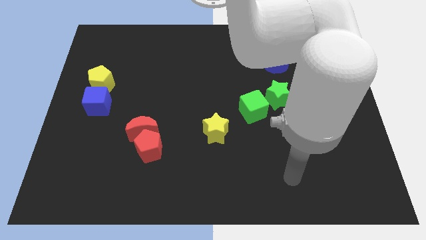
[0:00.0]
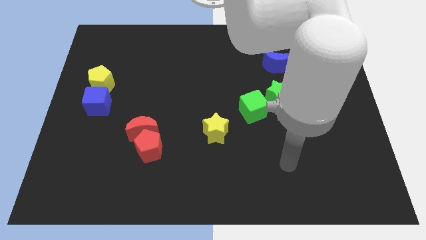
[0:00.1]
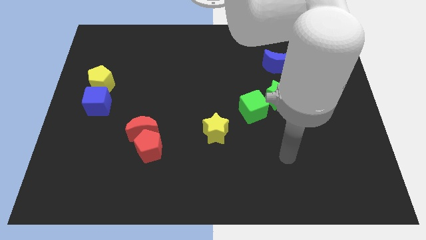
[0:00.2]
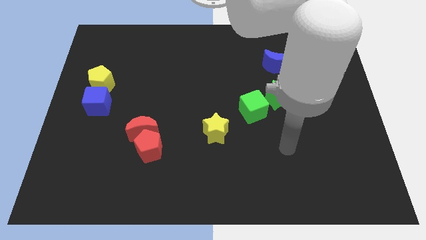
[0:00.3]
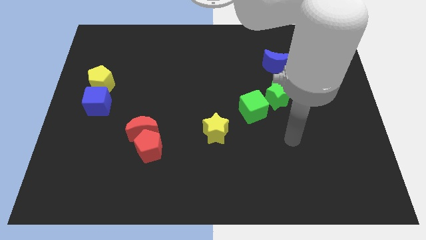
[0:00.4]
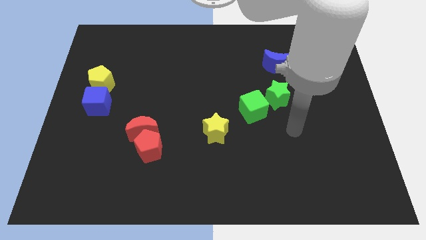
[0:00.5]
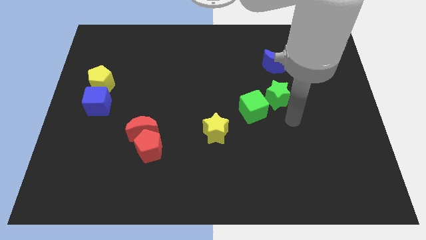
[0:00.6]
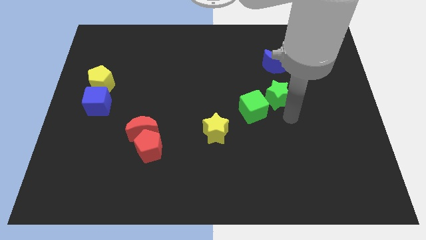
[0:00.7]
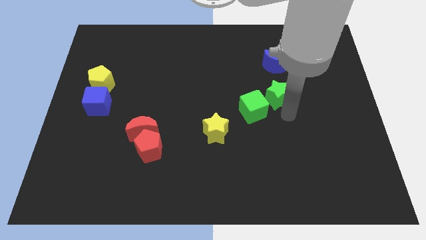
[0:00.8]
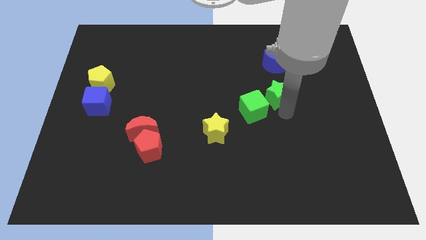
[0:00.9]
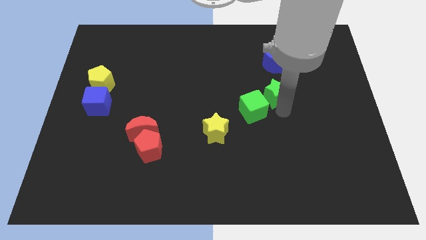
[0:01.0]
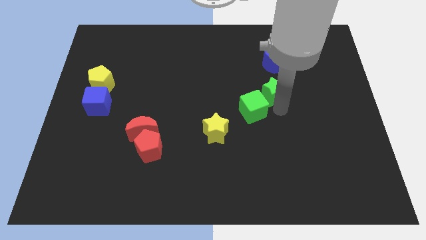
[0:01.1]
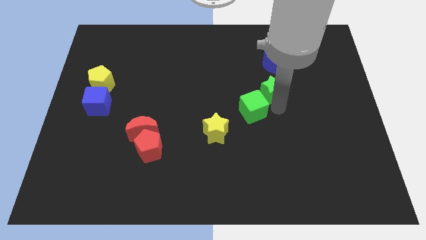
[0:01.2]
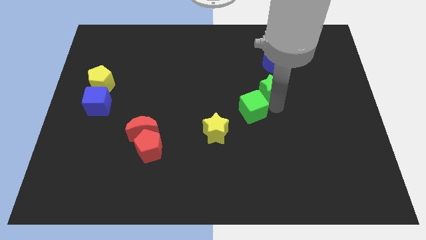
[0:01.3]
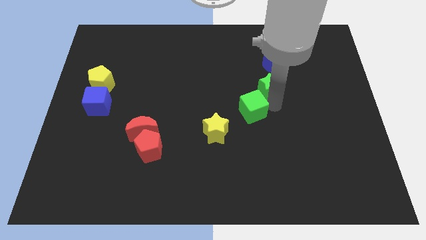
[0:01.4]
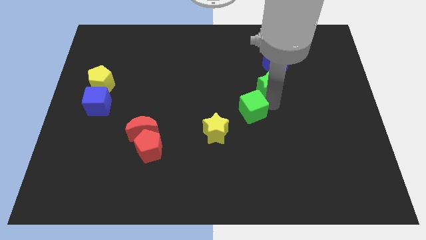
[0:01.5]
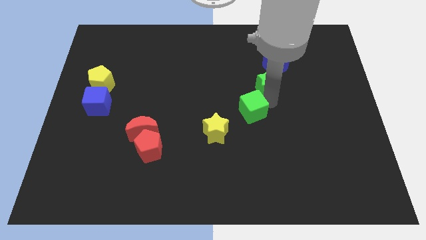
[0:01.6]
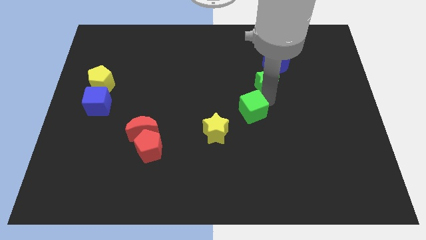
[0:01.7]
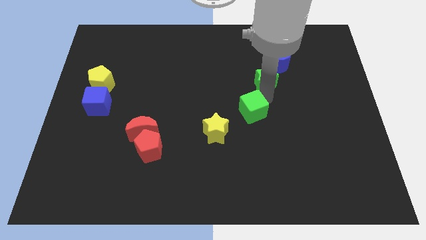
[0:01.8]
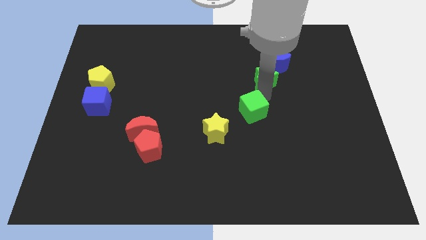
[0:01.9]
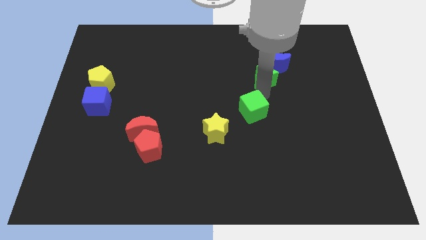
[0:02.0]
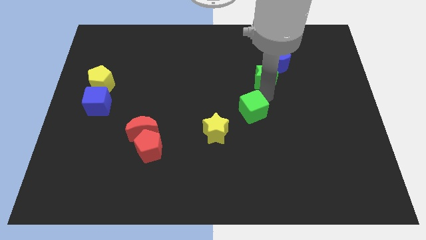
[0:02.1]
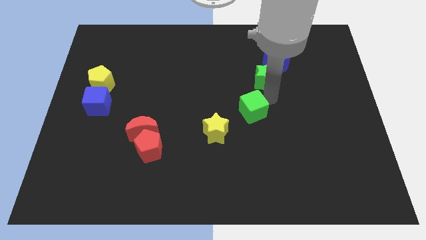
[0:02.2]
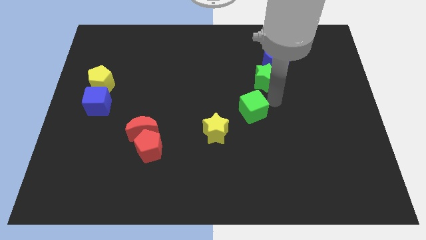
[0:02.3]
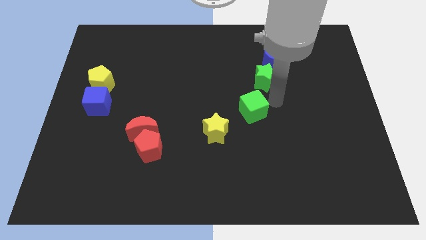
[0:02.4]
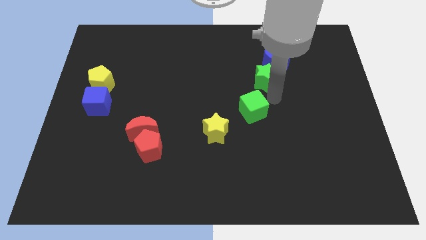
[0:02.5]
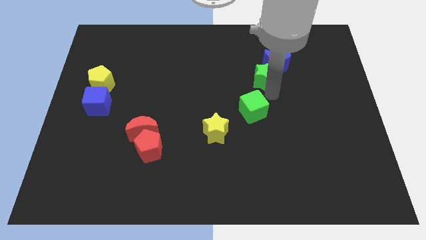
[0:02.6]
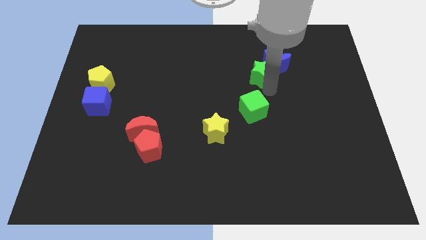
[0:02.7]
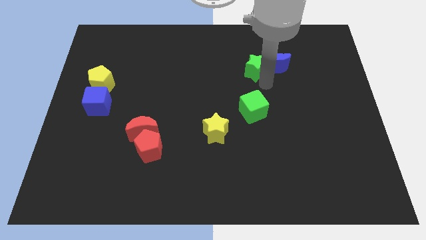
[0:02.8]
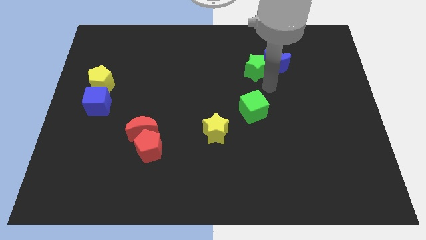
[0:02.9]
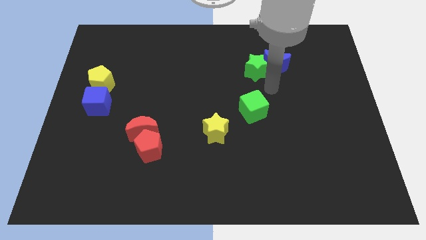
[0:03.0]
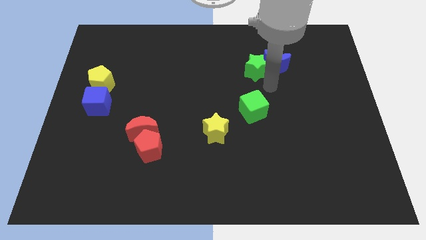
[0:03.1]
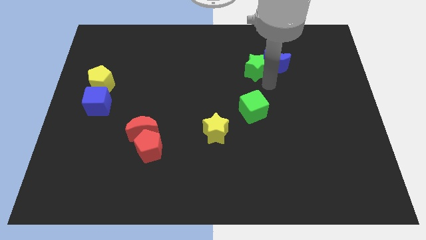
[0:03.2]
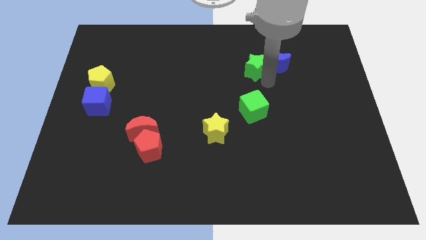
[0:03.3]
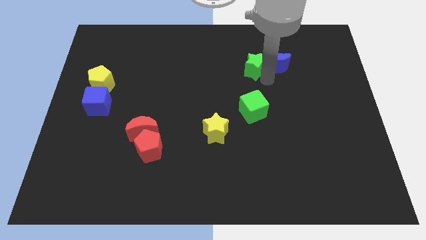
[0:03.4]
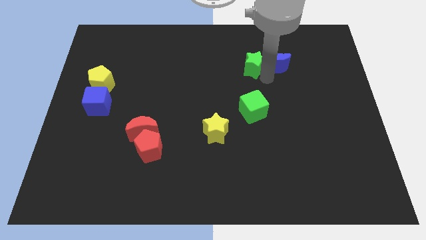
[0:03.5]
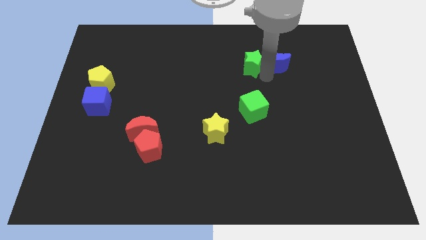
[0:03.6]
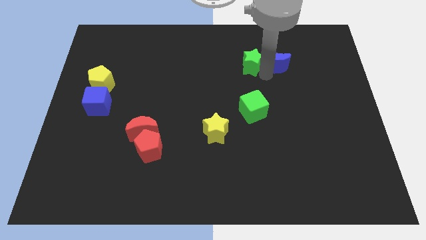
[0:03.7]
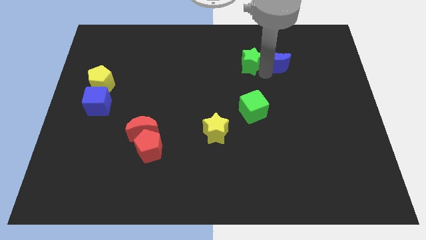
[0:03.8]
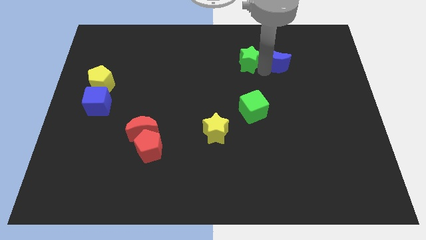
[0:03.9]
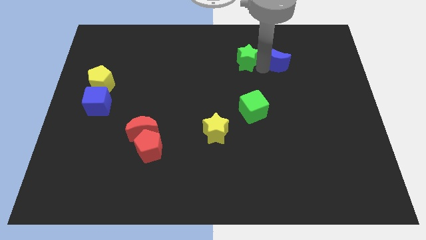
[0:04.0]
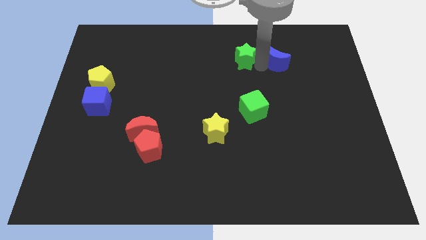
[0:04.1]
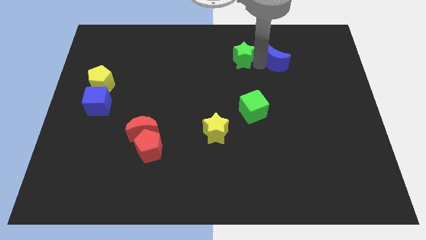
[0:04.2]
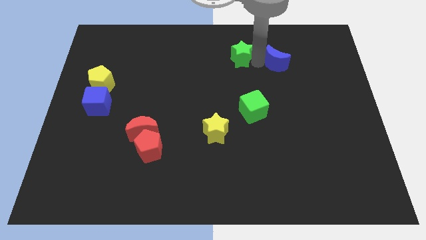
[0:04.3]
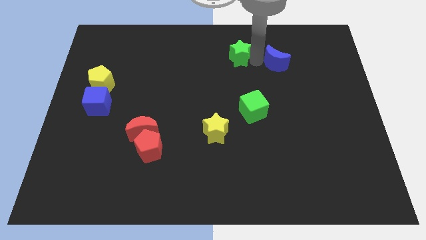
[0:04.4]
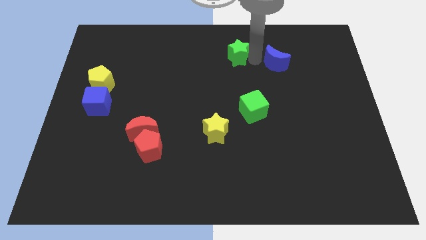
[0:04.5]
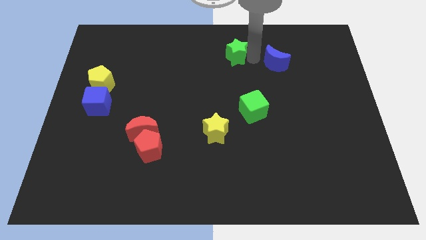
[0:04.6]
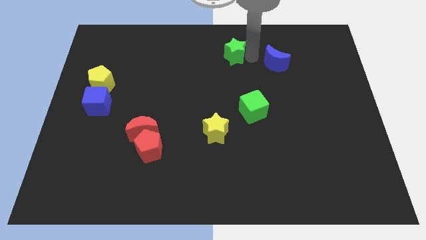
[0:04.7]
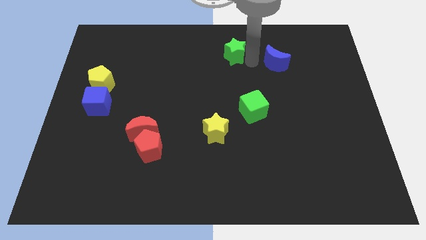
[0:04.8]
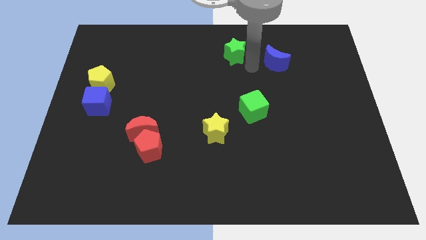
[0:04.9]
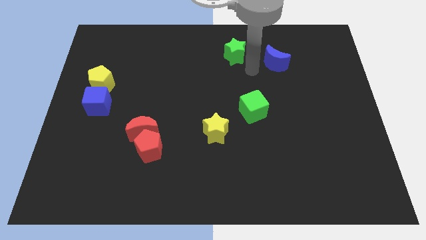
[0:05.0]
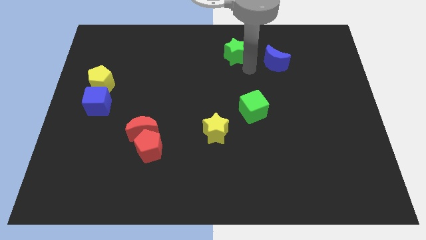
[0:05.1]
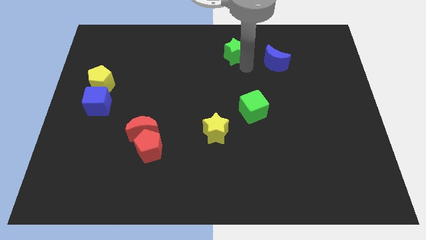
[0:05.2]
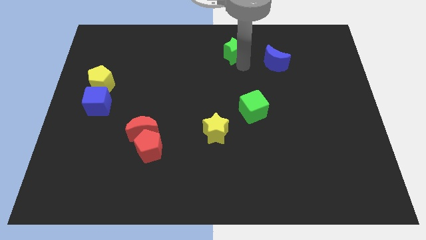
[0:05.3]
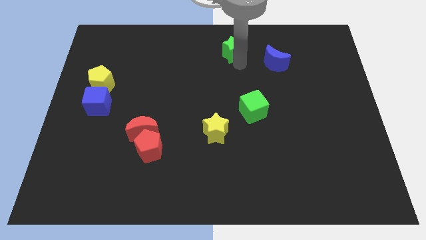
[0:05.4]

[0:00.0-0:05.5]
slide the green star to the towards your base

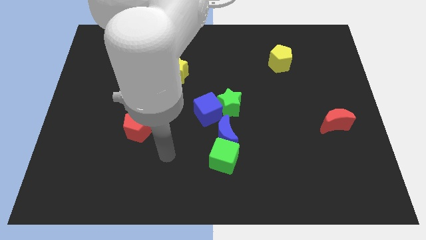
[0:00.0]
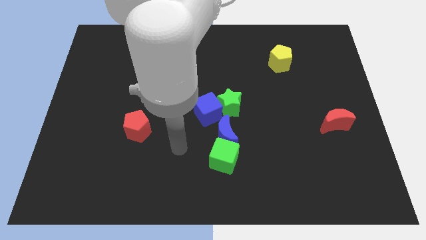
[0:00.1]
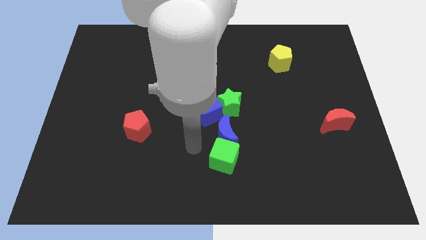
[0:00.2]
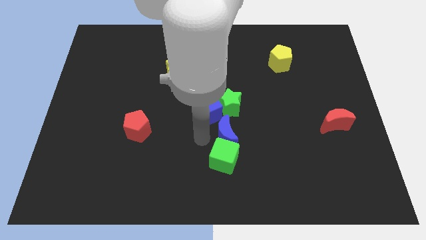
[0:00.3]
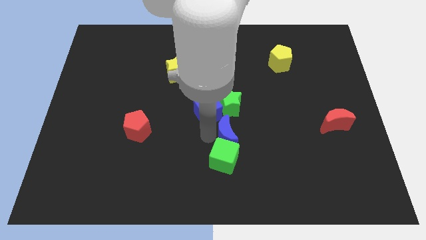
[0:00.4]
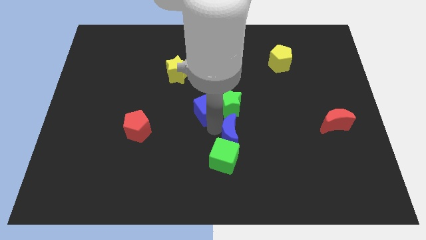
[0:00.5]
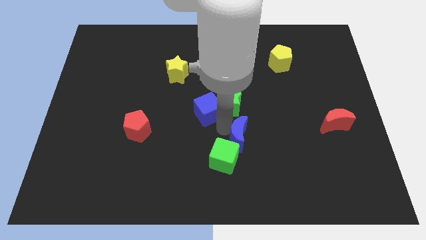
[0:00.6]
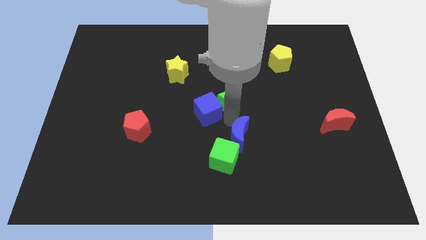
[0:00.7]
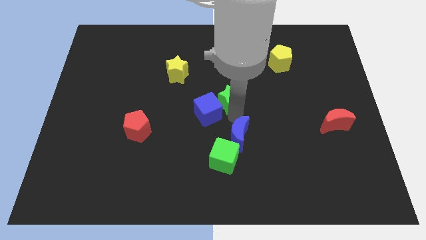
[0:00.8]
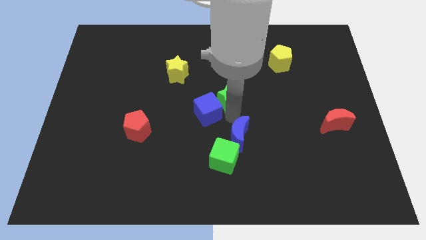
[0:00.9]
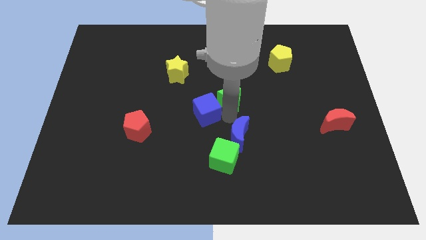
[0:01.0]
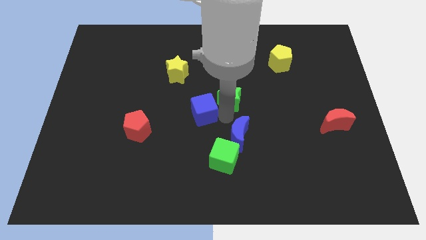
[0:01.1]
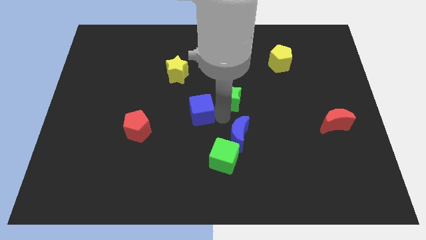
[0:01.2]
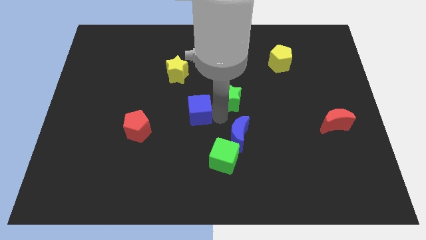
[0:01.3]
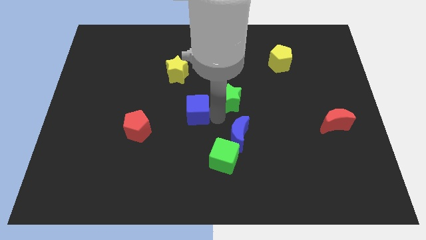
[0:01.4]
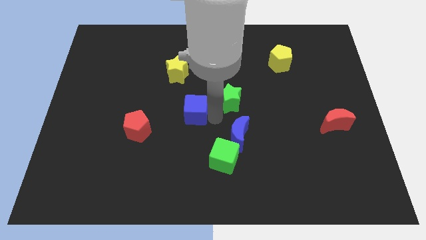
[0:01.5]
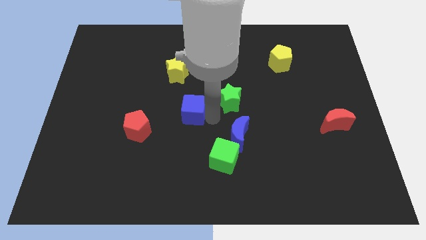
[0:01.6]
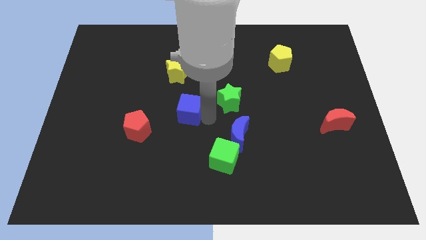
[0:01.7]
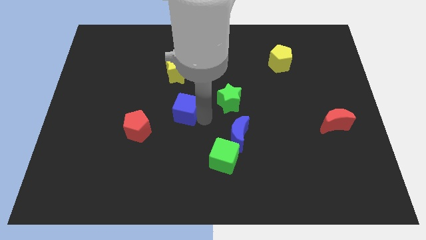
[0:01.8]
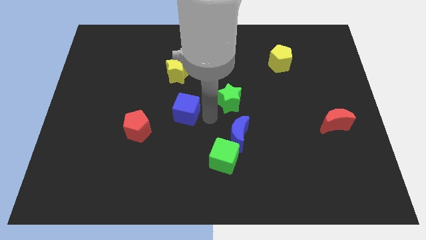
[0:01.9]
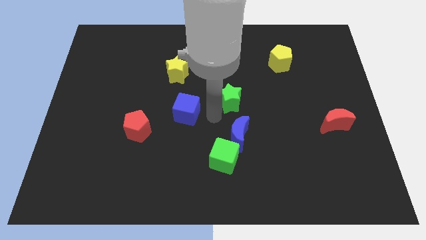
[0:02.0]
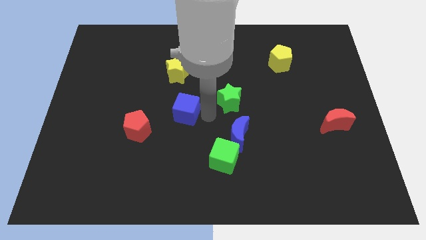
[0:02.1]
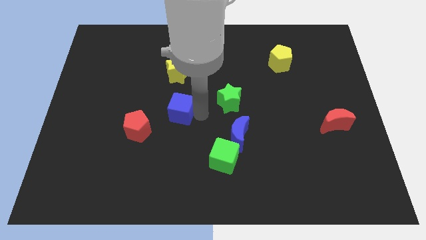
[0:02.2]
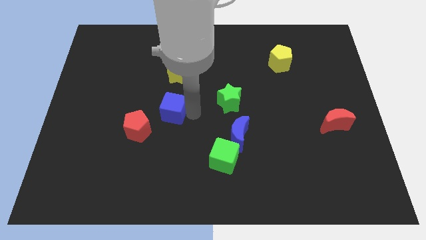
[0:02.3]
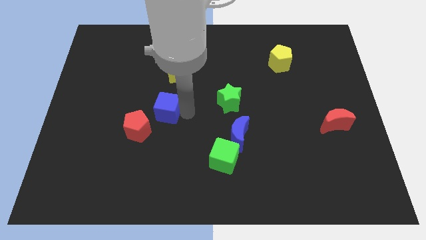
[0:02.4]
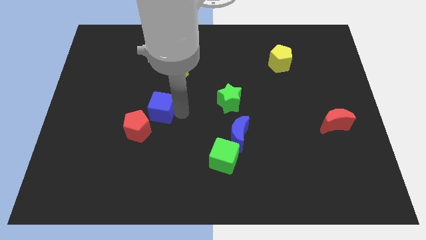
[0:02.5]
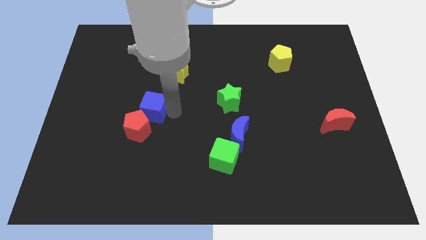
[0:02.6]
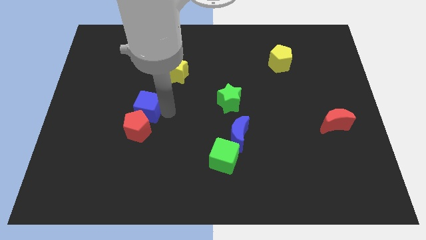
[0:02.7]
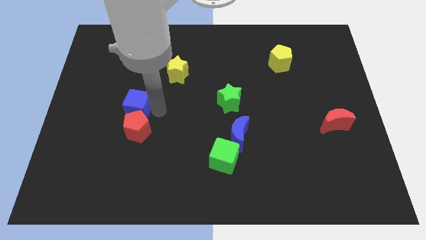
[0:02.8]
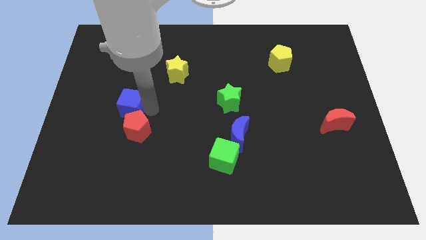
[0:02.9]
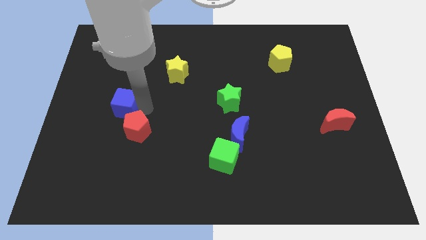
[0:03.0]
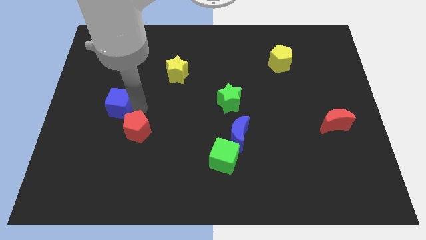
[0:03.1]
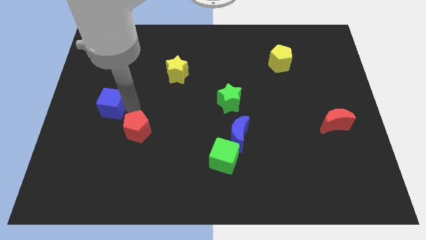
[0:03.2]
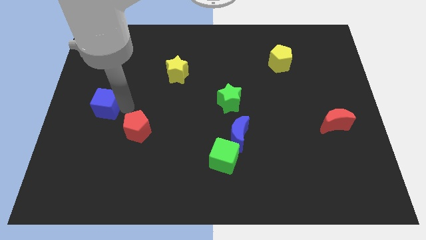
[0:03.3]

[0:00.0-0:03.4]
push the blue cube to the center left
